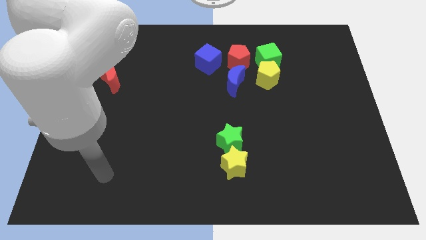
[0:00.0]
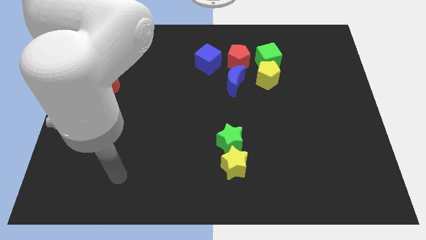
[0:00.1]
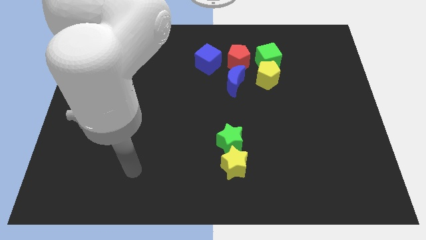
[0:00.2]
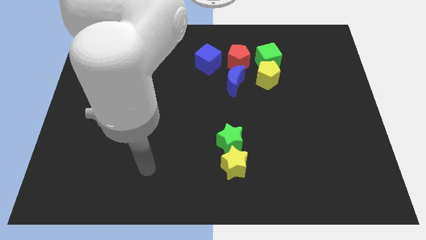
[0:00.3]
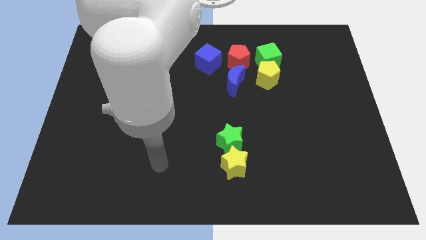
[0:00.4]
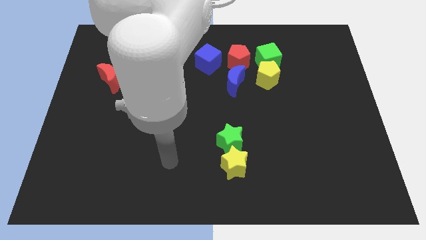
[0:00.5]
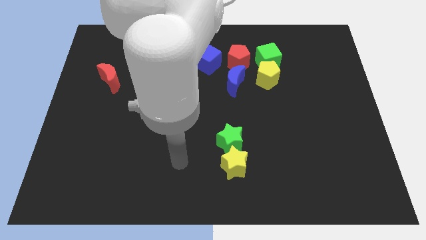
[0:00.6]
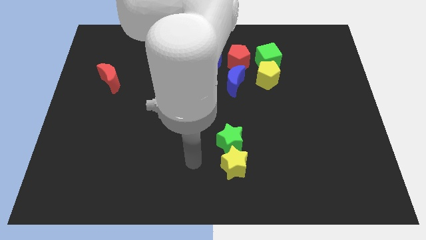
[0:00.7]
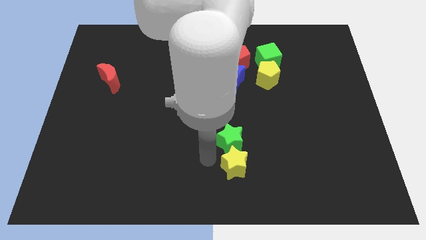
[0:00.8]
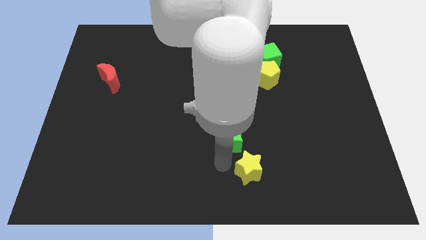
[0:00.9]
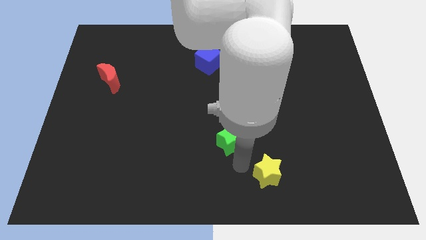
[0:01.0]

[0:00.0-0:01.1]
separate the green star from the yellow star

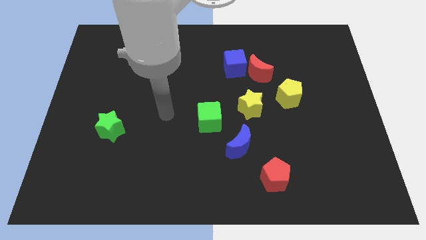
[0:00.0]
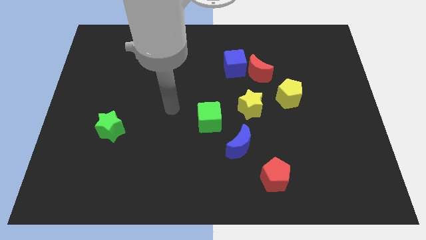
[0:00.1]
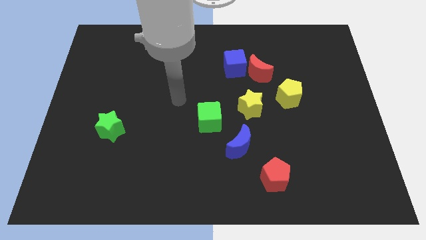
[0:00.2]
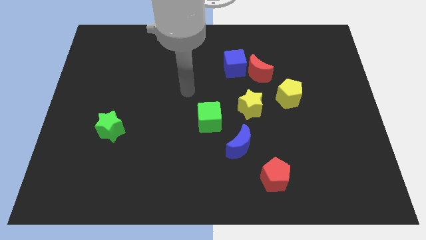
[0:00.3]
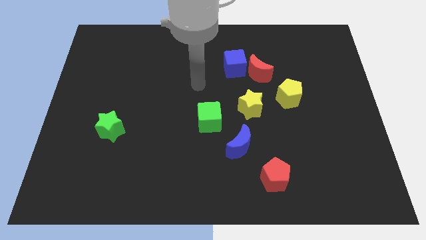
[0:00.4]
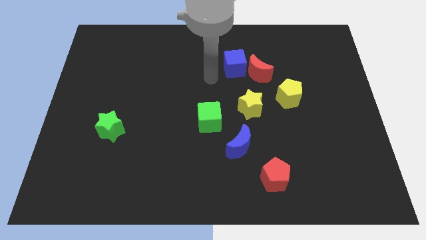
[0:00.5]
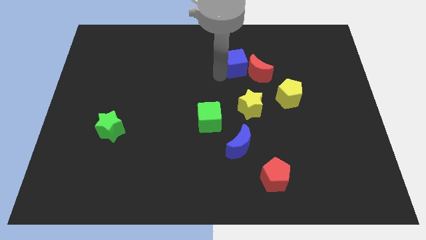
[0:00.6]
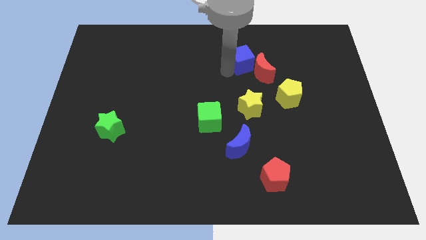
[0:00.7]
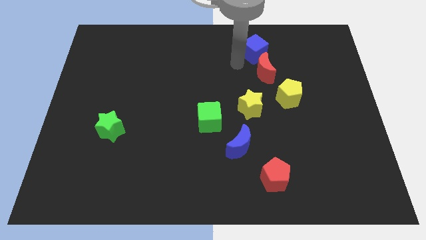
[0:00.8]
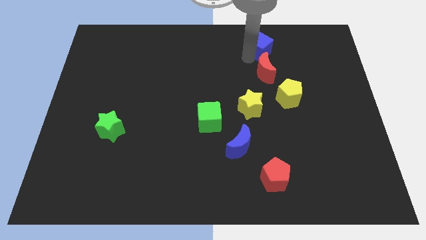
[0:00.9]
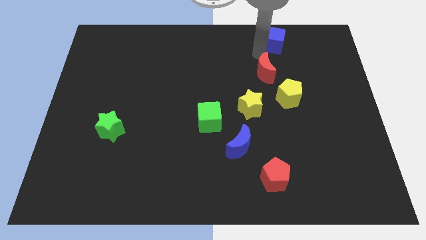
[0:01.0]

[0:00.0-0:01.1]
pull the red moon apart from the blue cube

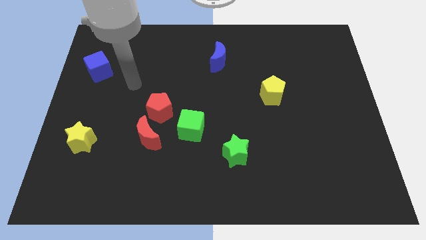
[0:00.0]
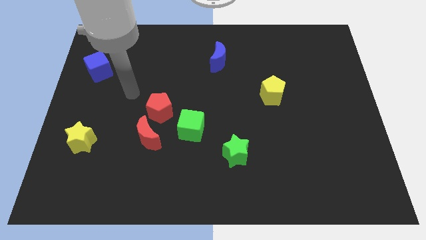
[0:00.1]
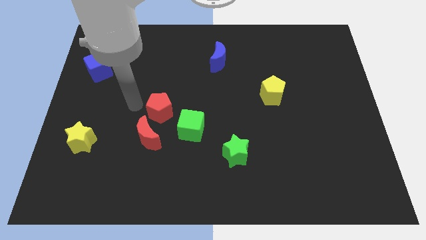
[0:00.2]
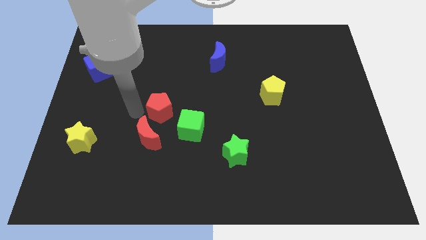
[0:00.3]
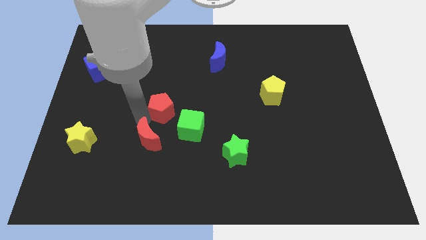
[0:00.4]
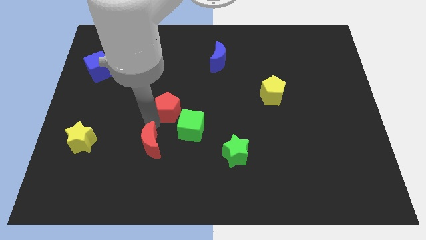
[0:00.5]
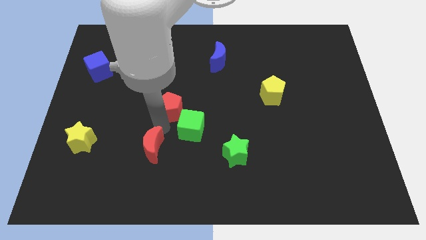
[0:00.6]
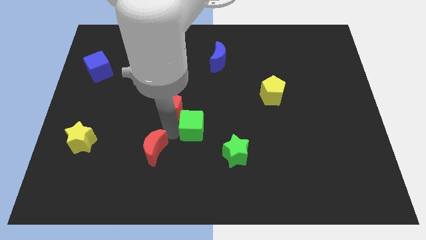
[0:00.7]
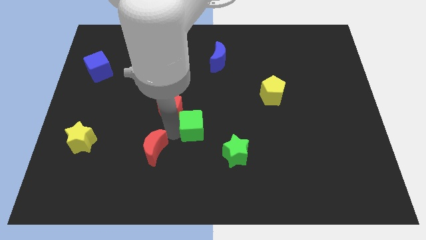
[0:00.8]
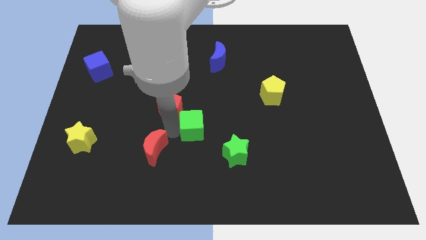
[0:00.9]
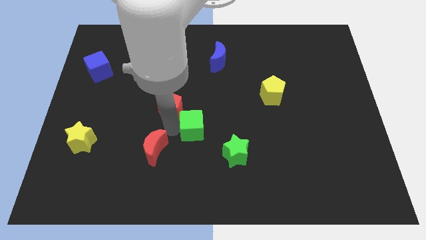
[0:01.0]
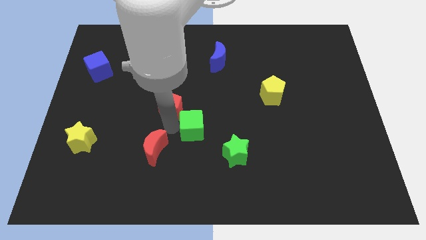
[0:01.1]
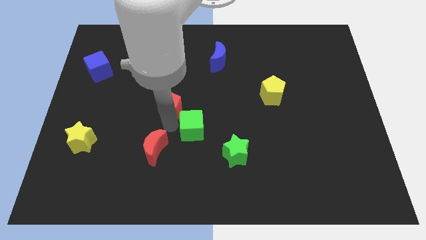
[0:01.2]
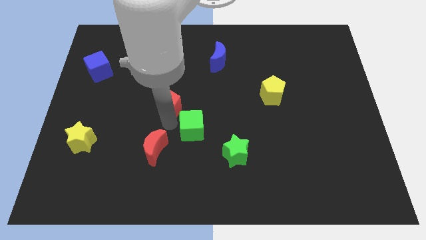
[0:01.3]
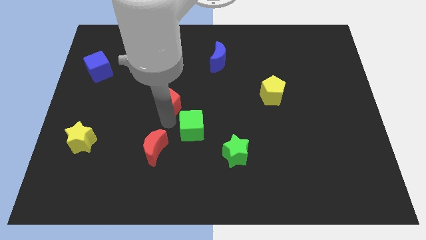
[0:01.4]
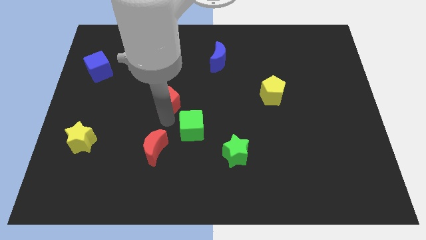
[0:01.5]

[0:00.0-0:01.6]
pull the red pentagon apart from the red moon and green cube

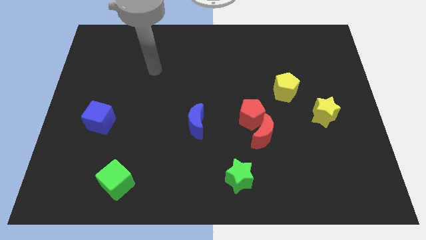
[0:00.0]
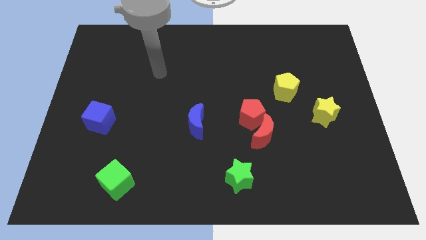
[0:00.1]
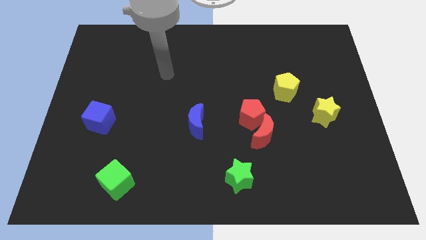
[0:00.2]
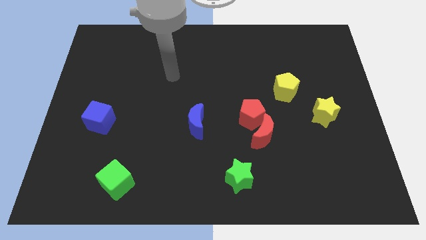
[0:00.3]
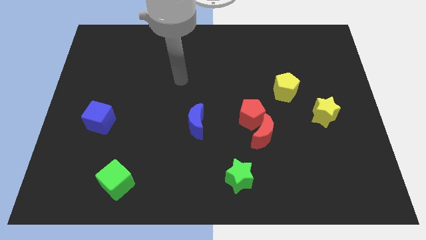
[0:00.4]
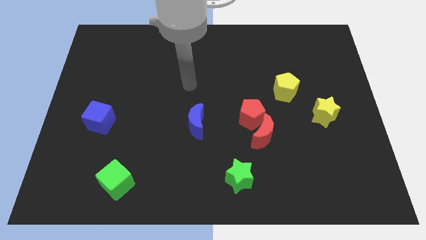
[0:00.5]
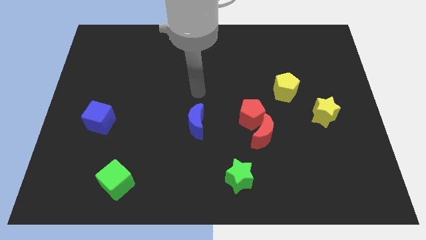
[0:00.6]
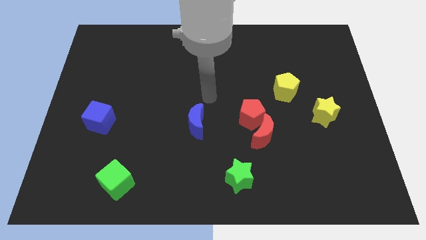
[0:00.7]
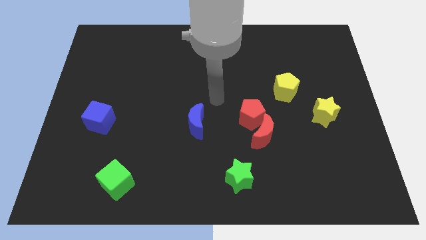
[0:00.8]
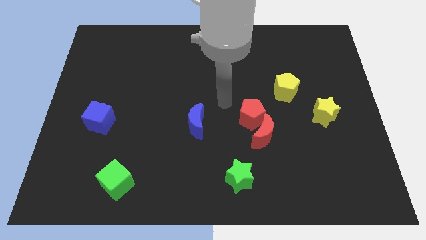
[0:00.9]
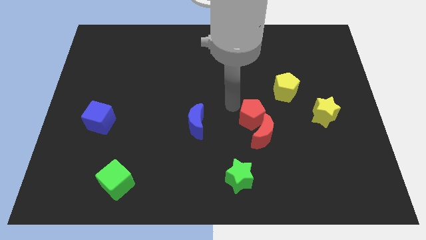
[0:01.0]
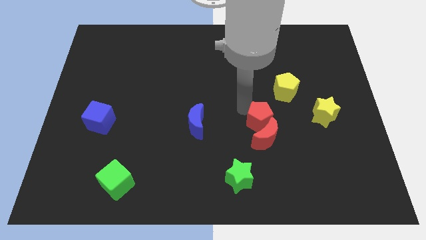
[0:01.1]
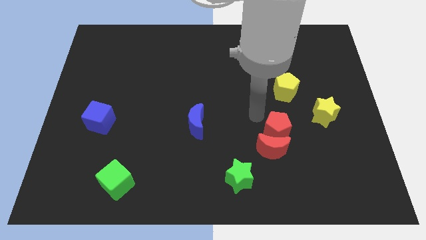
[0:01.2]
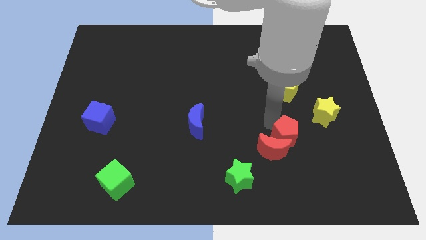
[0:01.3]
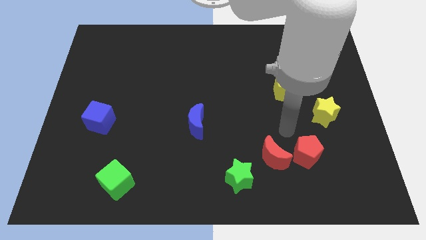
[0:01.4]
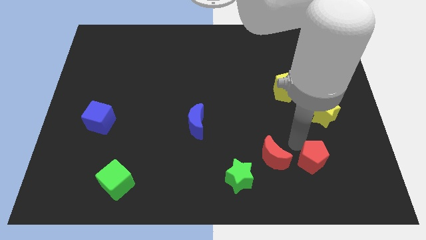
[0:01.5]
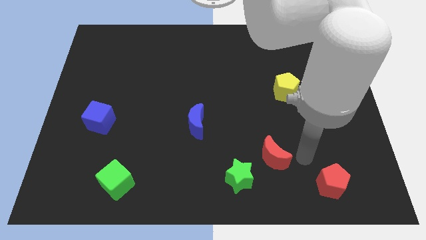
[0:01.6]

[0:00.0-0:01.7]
separate the red moon from the red pentagon

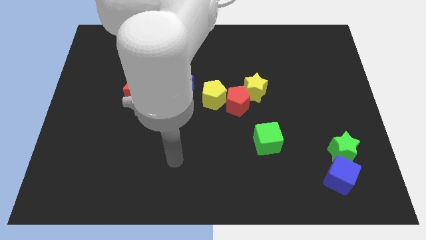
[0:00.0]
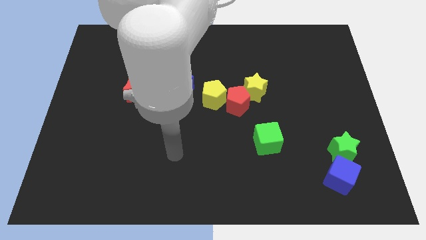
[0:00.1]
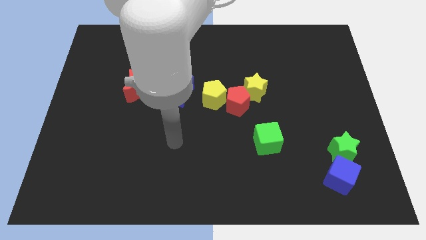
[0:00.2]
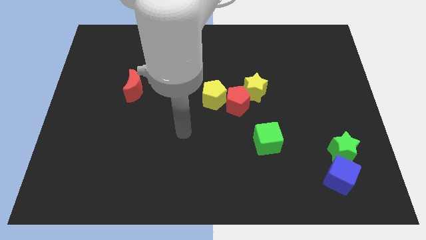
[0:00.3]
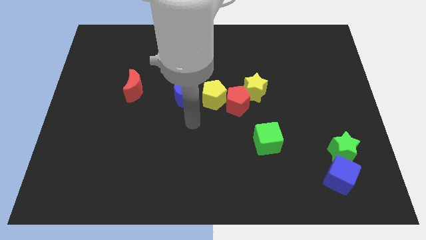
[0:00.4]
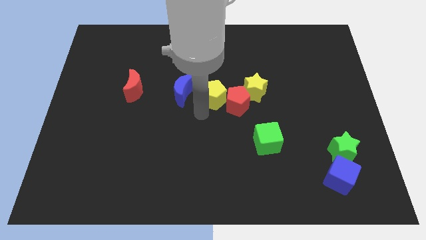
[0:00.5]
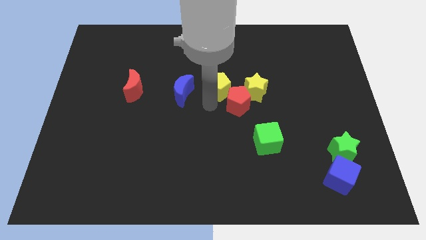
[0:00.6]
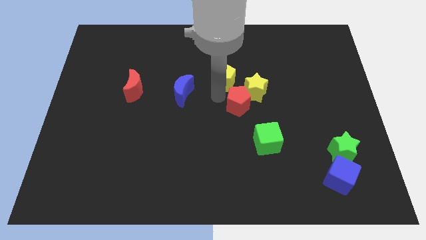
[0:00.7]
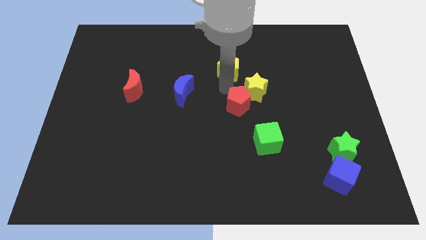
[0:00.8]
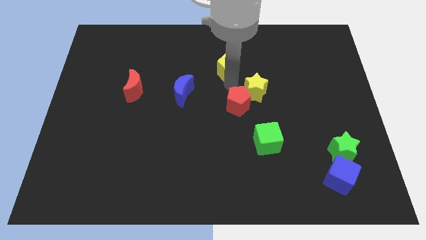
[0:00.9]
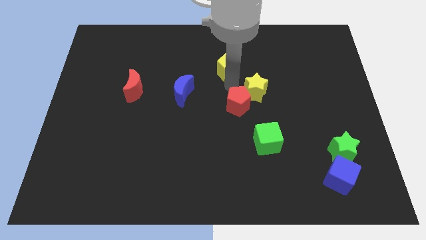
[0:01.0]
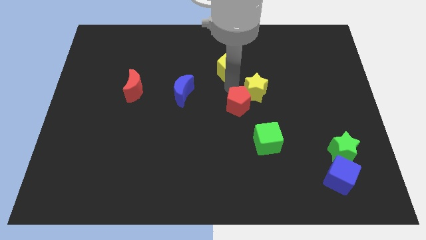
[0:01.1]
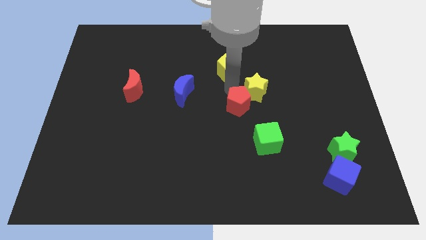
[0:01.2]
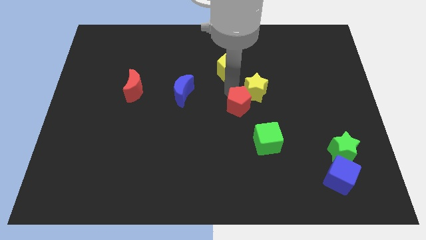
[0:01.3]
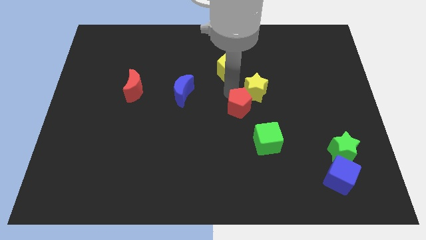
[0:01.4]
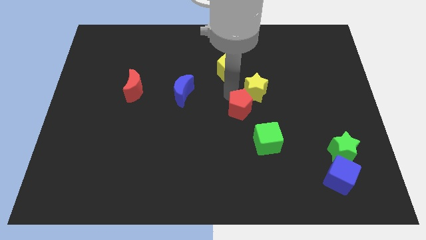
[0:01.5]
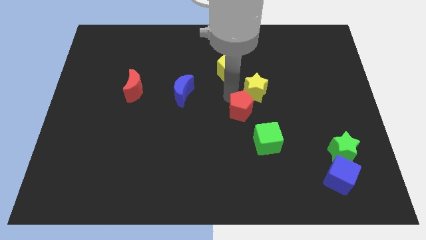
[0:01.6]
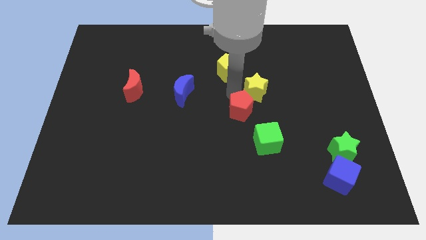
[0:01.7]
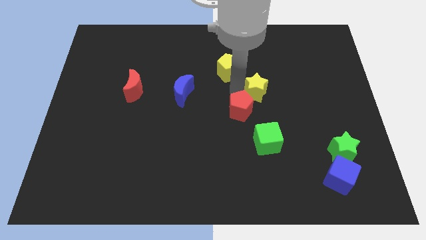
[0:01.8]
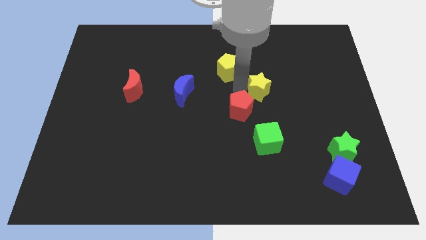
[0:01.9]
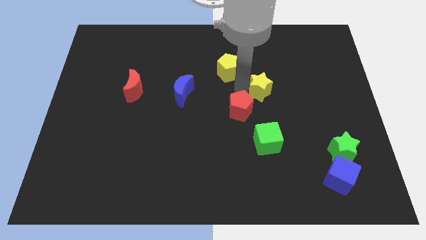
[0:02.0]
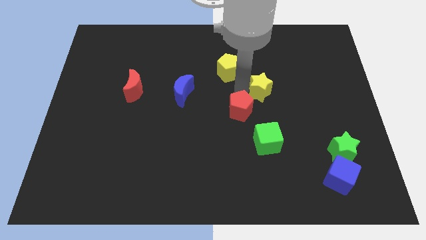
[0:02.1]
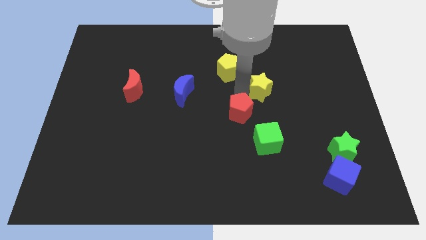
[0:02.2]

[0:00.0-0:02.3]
pull the red pentagon apart from the yellow pentagon and yellow star

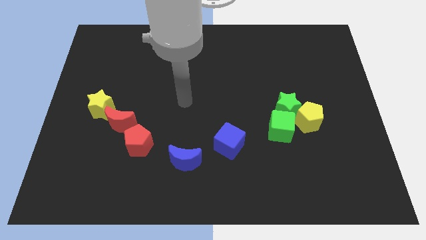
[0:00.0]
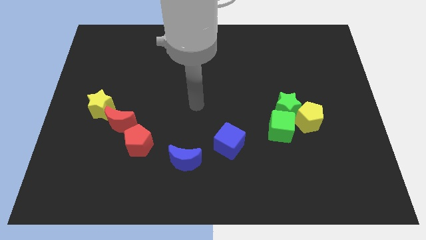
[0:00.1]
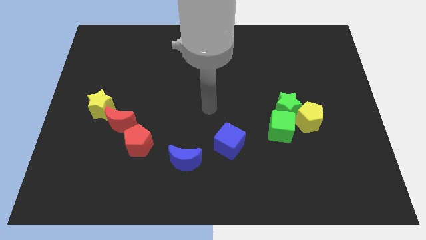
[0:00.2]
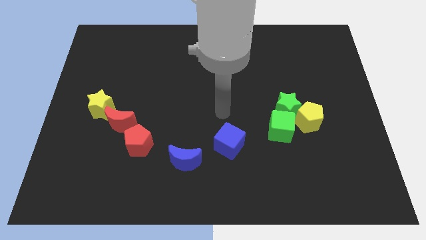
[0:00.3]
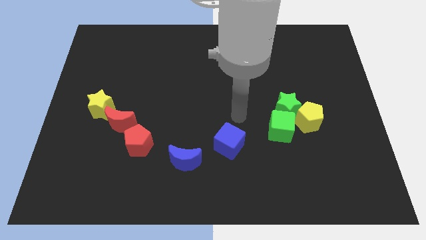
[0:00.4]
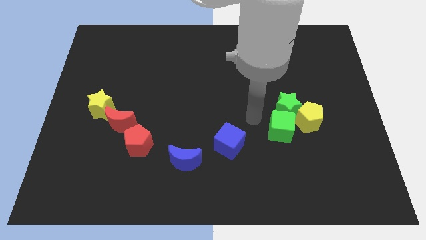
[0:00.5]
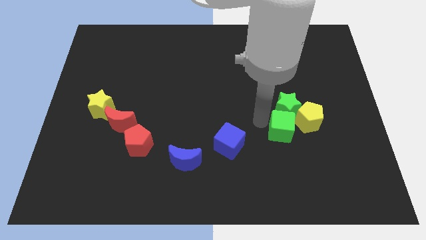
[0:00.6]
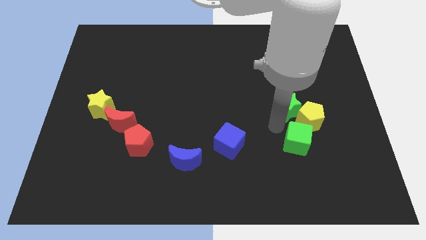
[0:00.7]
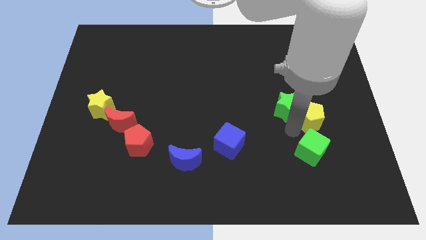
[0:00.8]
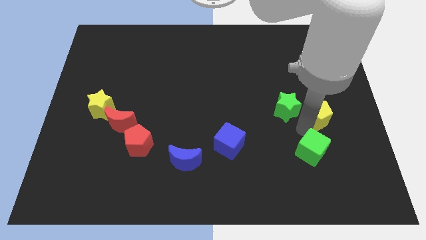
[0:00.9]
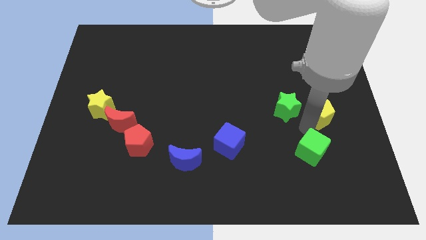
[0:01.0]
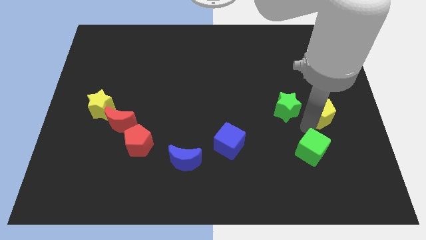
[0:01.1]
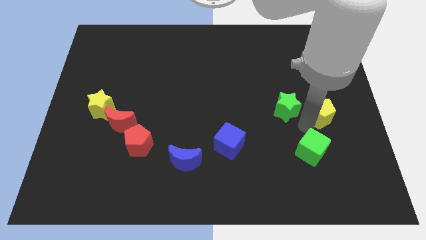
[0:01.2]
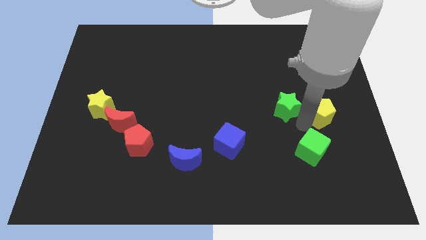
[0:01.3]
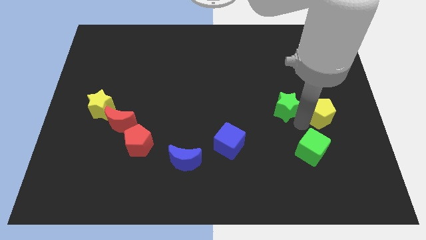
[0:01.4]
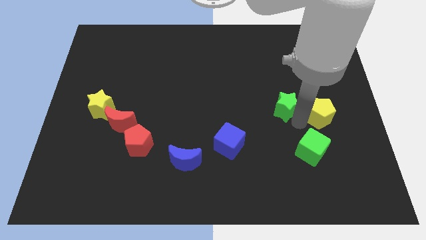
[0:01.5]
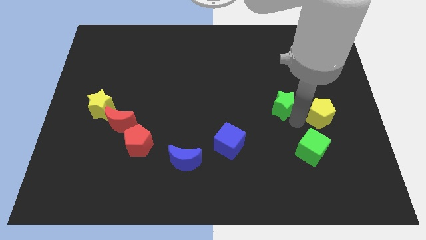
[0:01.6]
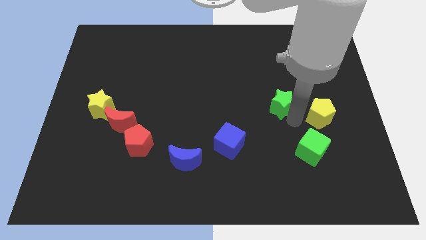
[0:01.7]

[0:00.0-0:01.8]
pull the green star apart from the yellow pentagon and green cube
